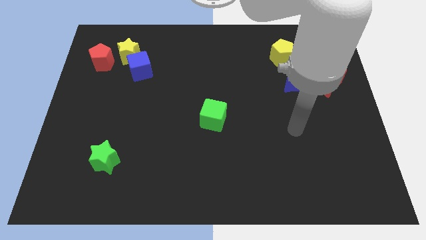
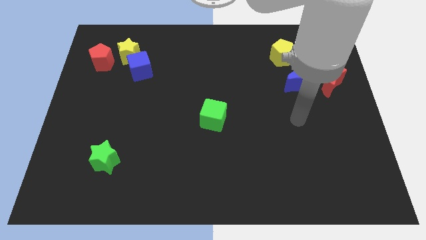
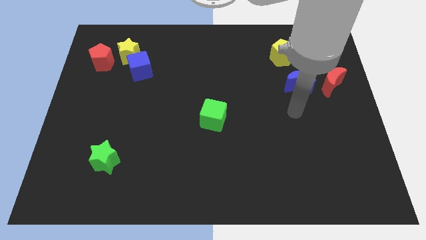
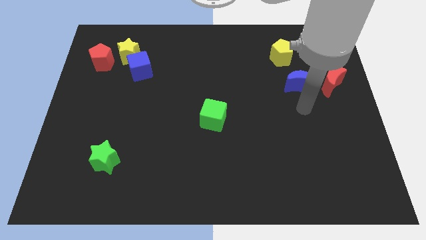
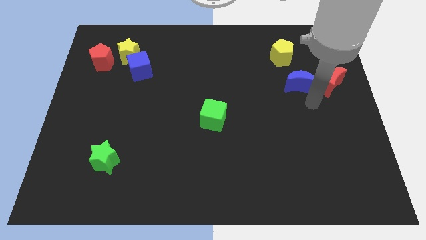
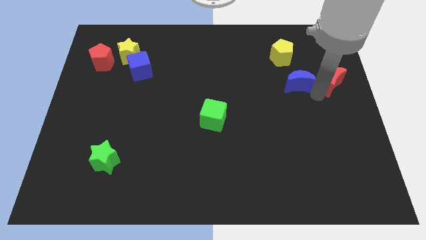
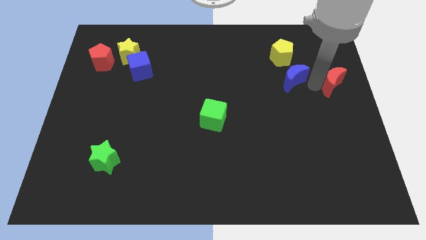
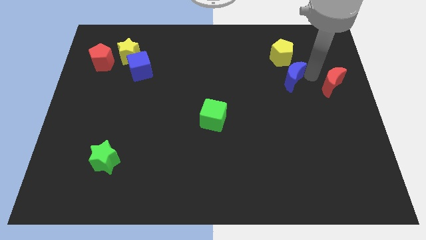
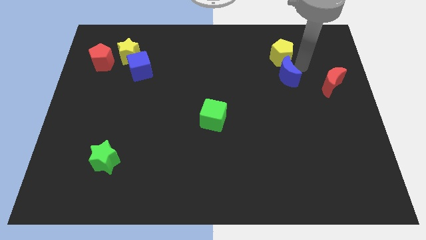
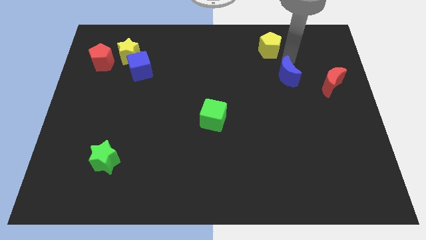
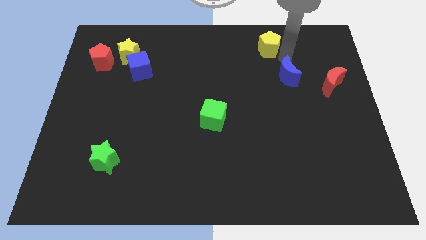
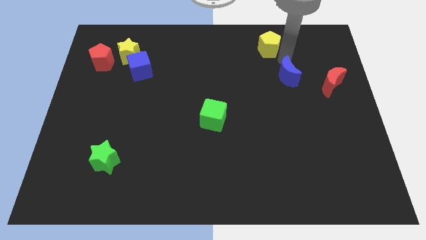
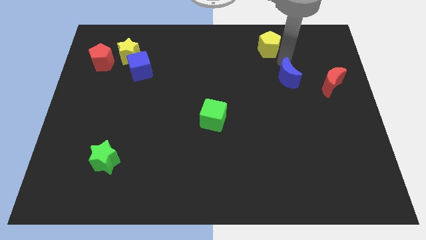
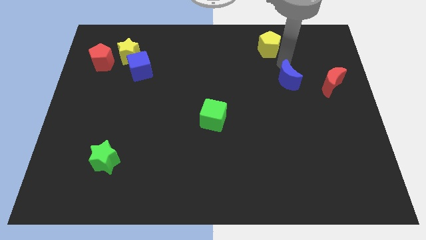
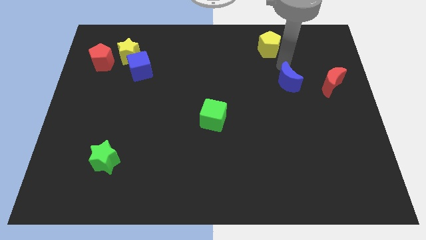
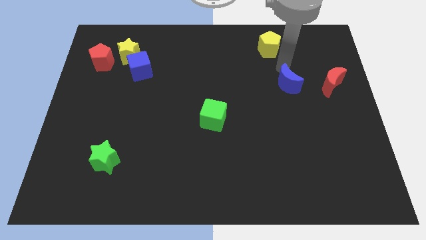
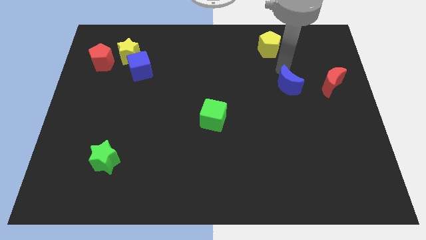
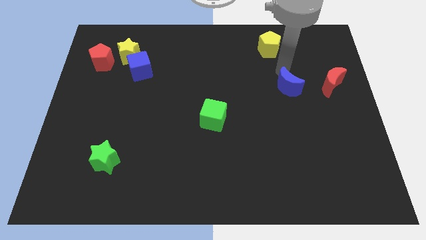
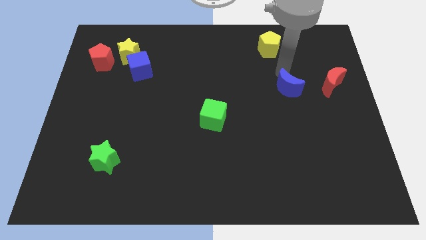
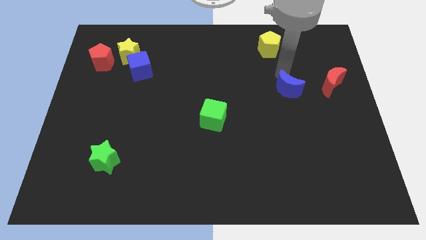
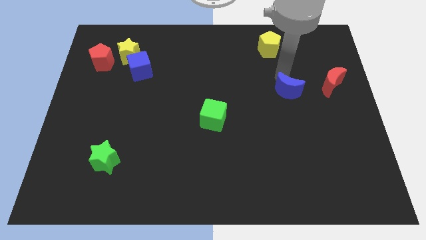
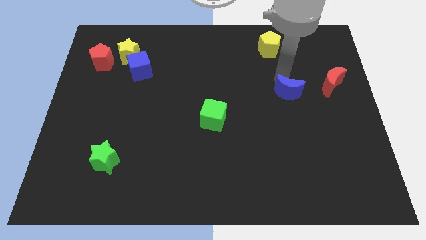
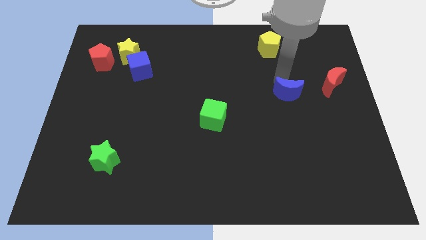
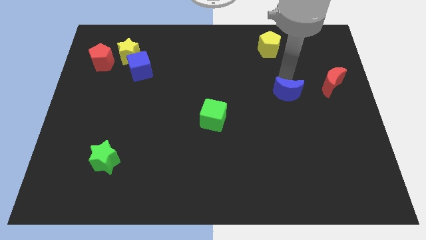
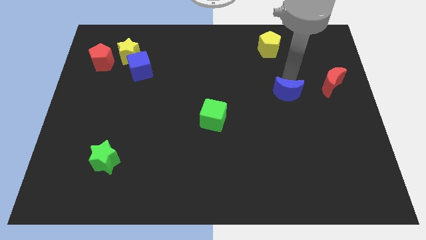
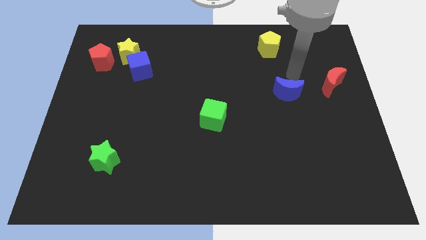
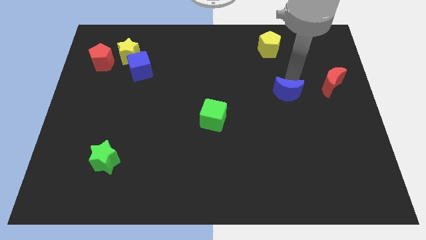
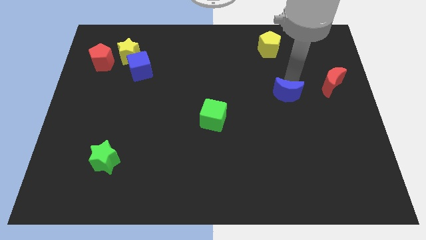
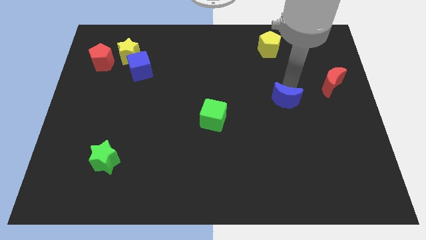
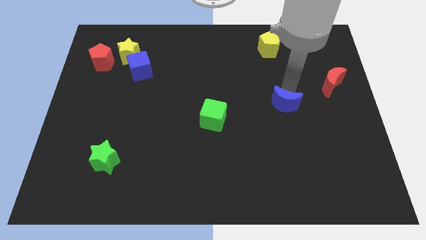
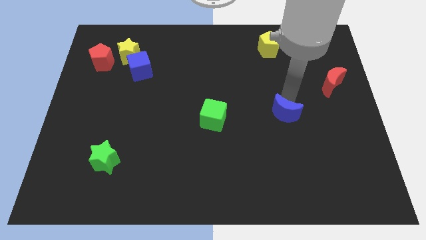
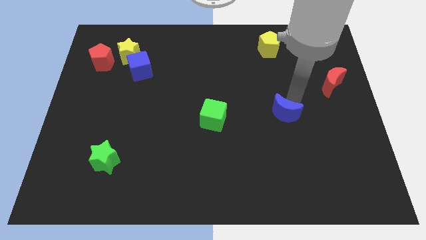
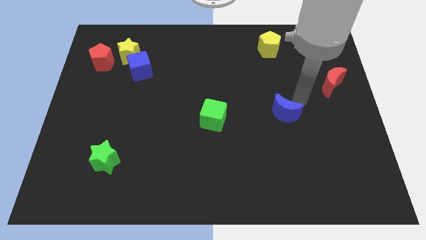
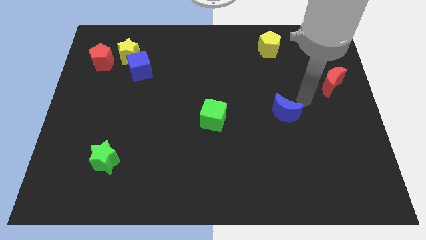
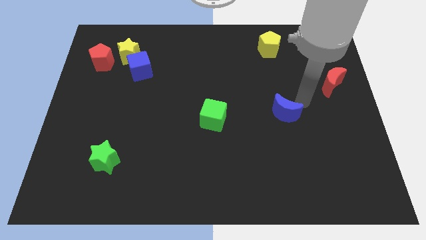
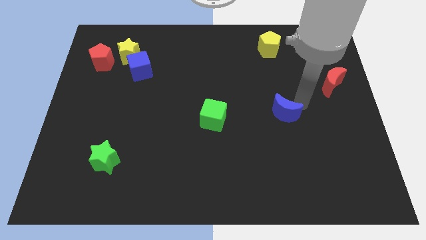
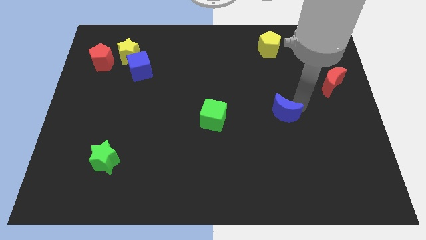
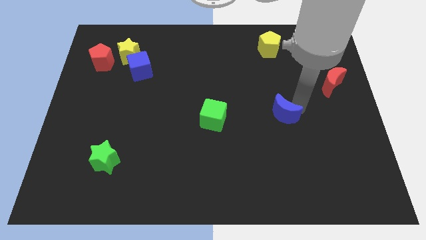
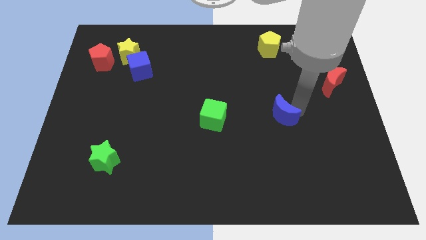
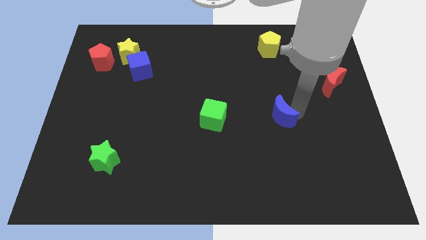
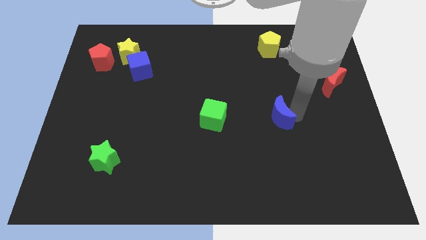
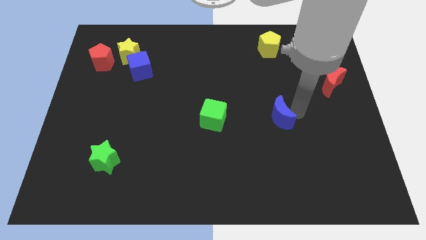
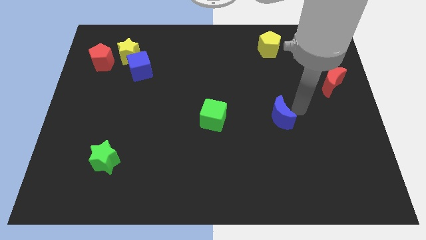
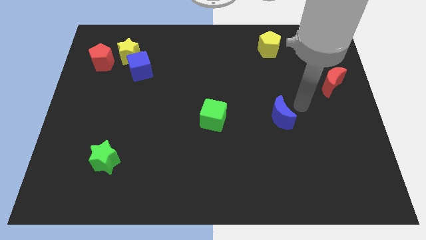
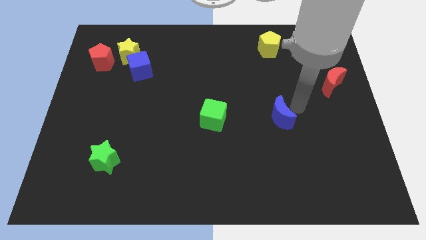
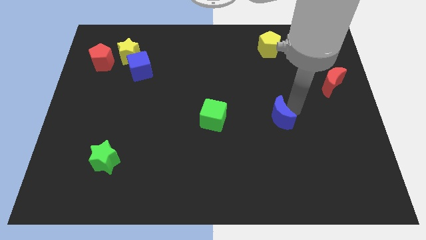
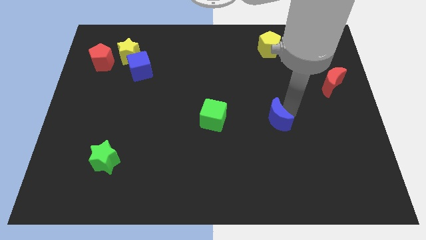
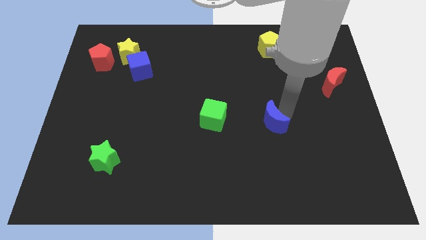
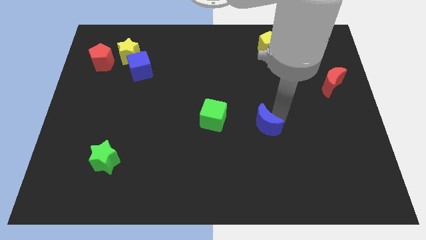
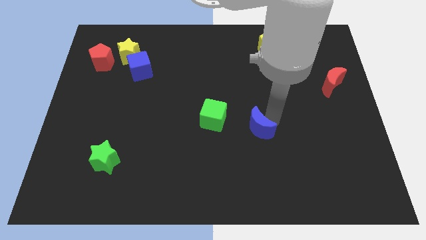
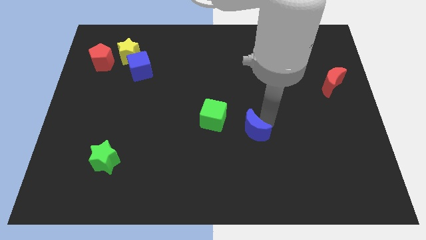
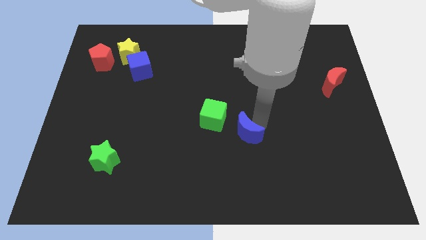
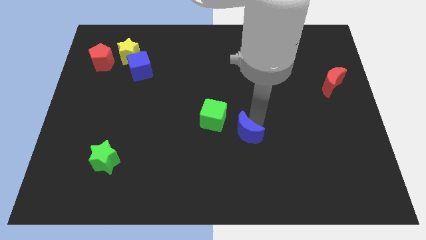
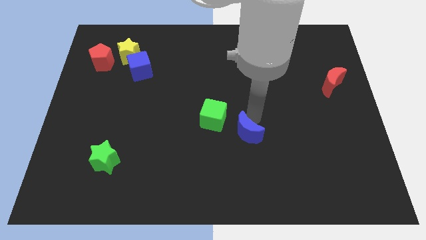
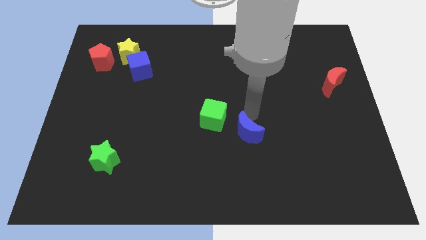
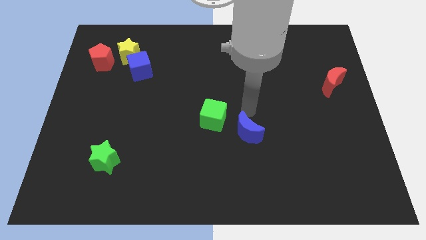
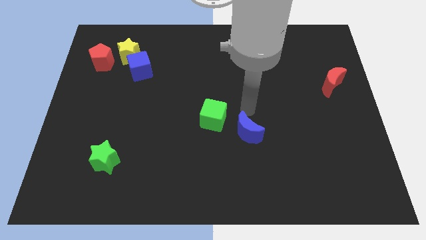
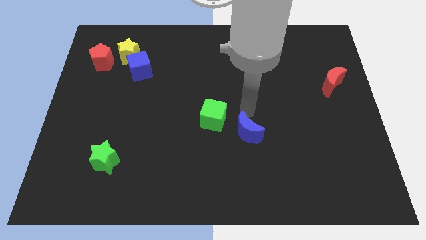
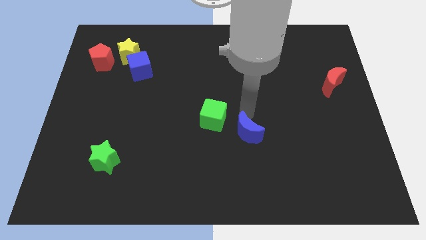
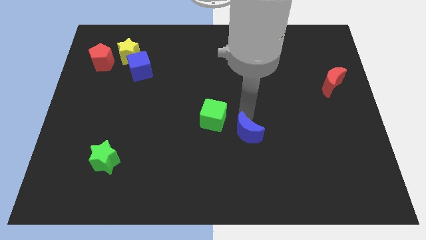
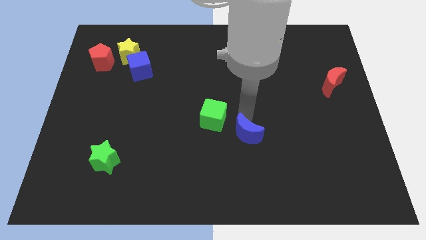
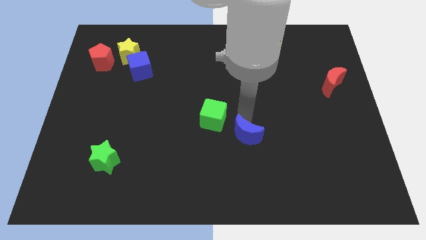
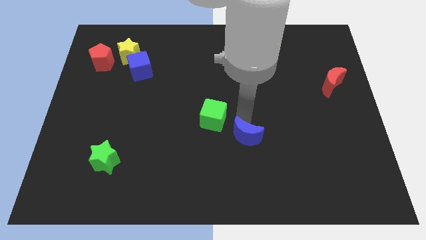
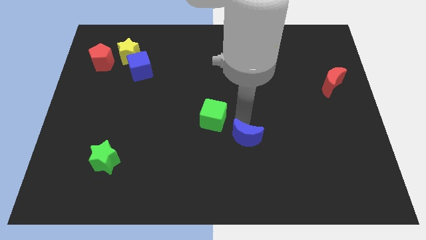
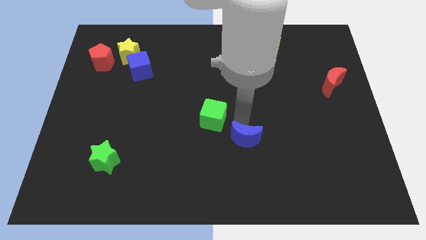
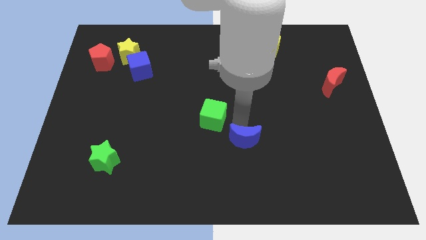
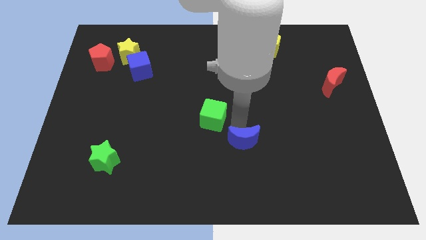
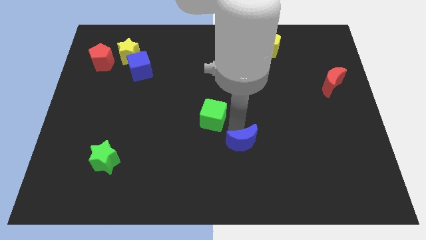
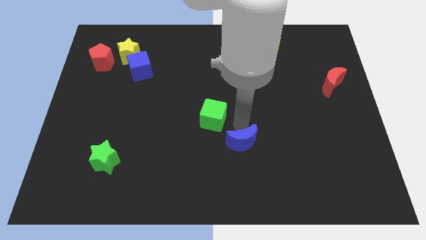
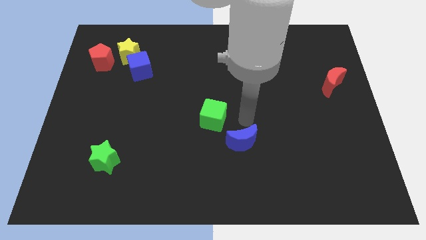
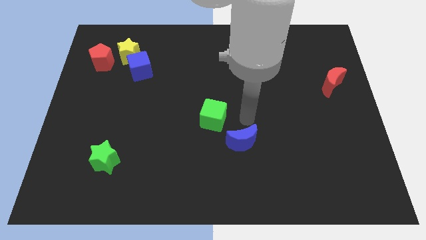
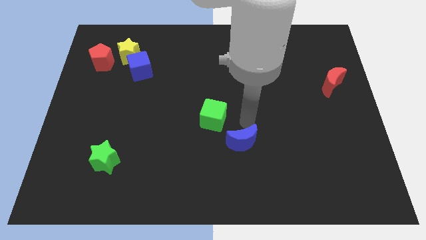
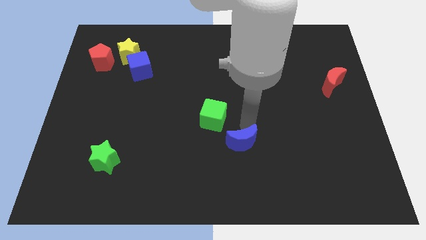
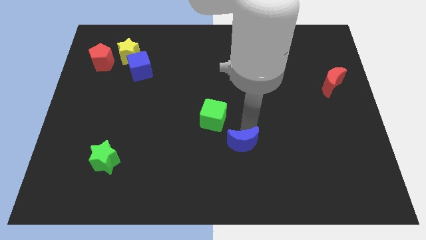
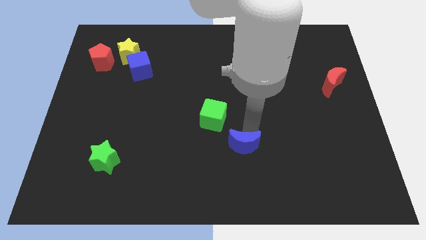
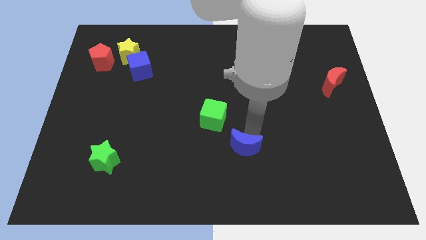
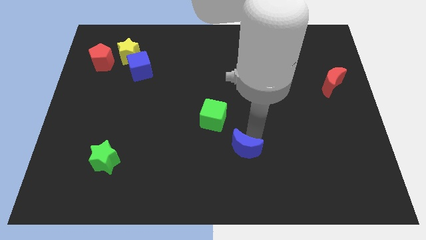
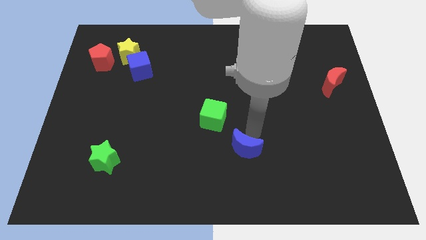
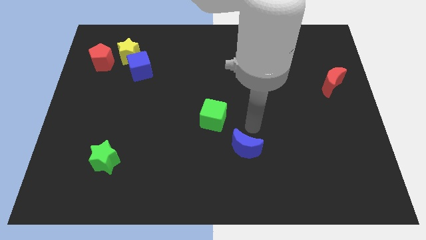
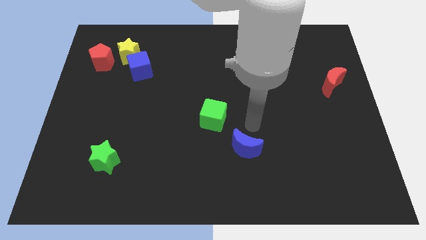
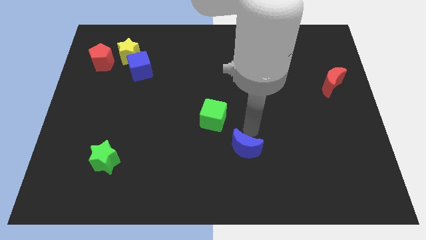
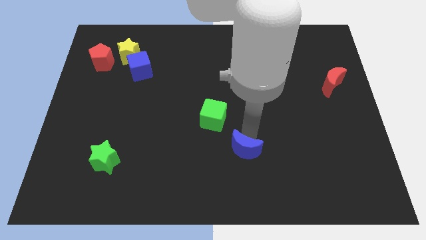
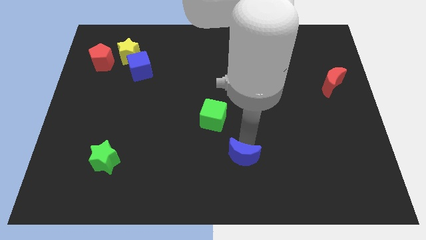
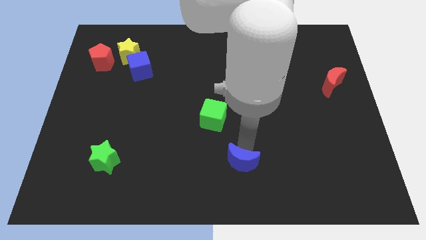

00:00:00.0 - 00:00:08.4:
move the blue moon to the bottom
